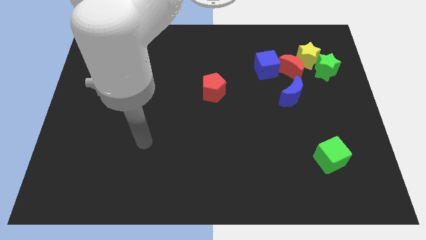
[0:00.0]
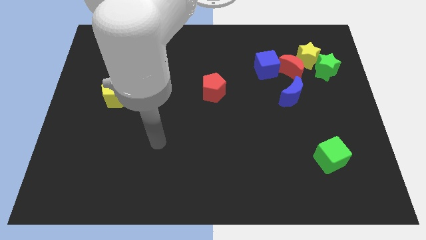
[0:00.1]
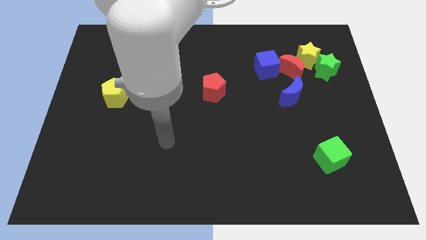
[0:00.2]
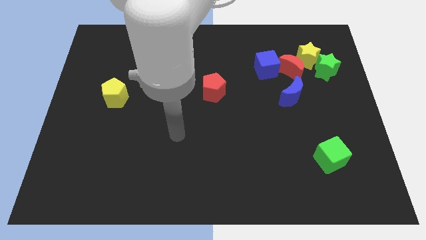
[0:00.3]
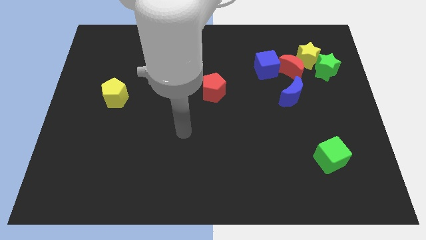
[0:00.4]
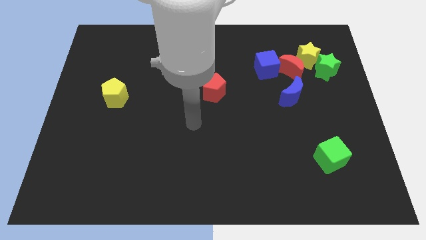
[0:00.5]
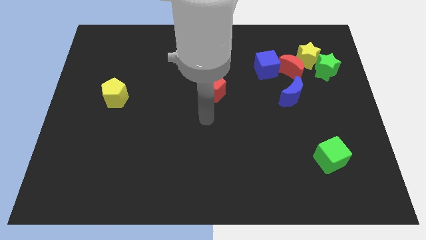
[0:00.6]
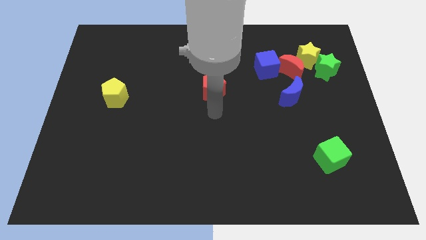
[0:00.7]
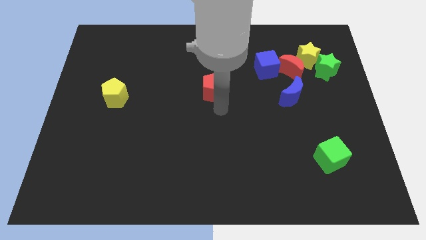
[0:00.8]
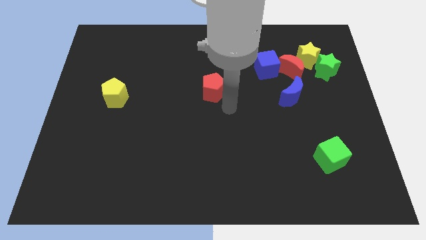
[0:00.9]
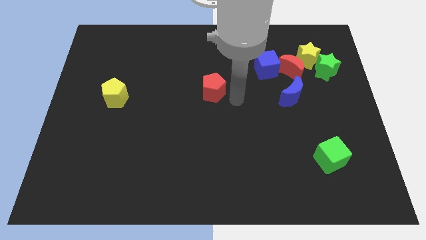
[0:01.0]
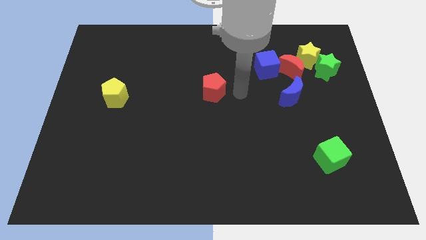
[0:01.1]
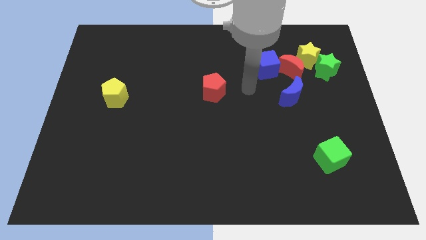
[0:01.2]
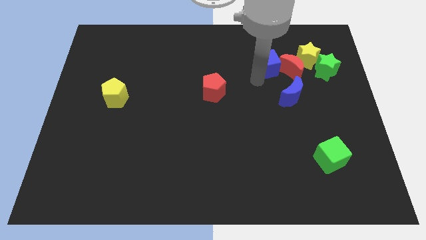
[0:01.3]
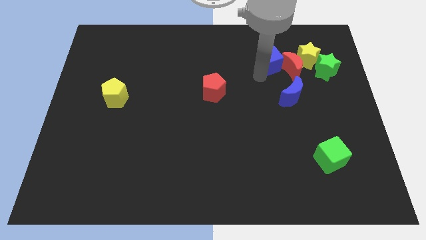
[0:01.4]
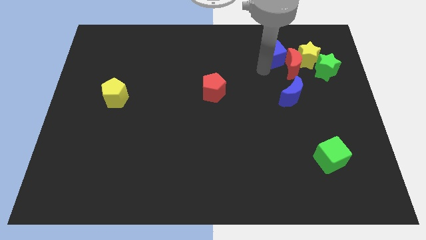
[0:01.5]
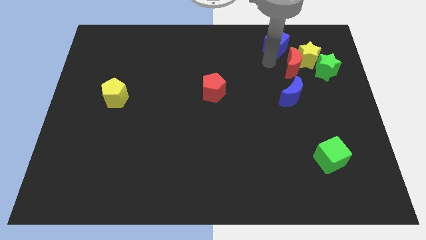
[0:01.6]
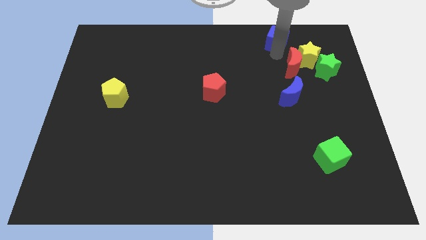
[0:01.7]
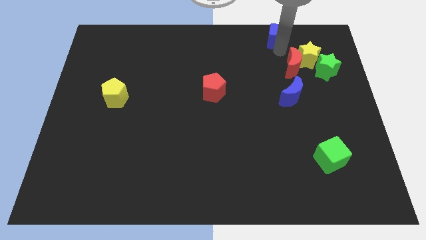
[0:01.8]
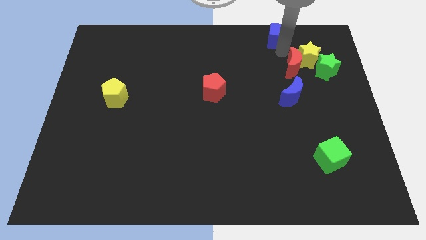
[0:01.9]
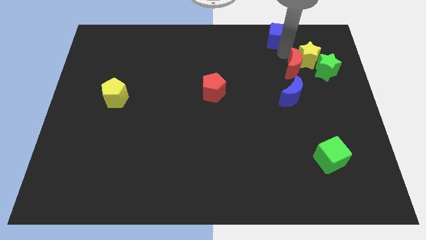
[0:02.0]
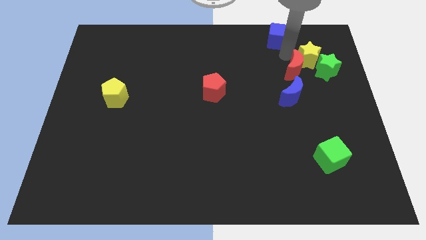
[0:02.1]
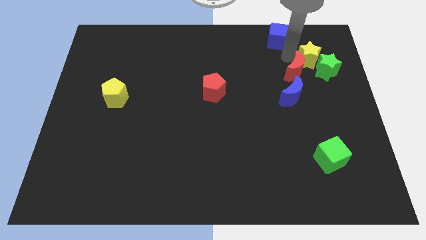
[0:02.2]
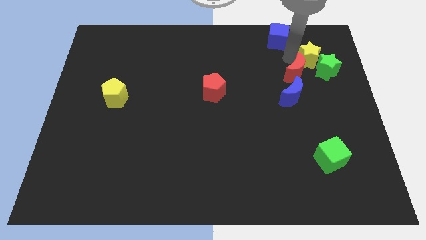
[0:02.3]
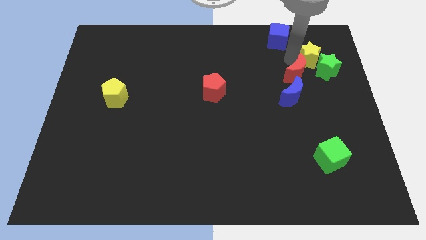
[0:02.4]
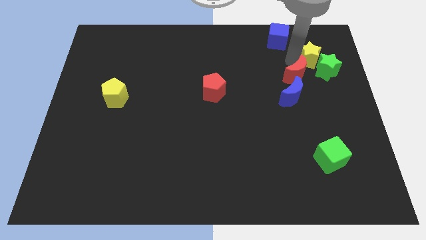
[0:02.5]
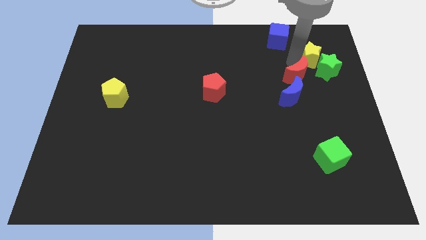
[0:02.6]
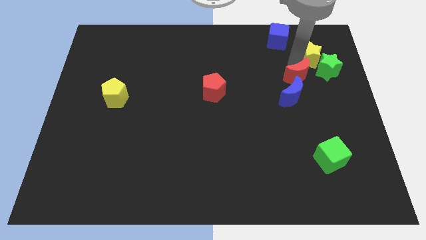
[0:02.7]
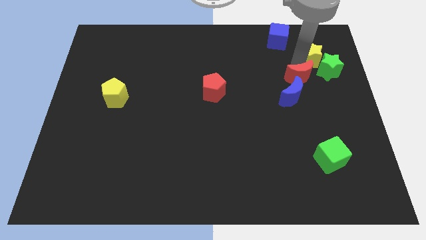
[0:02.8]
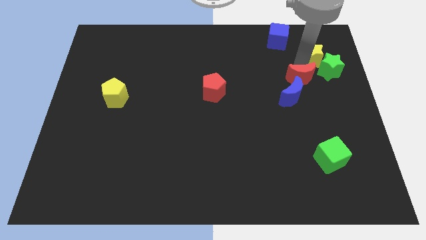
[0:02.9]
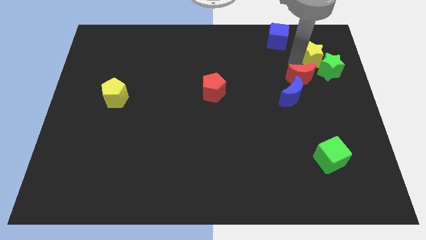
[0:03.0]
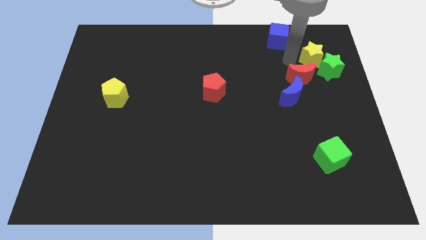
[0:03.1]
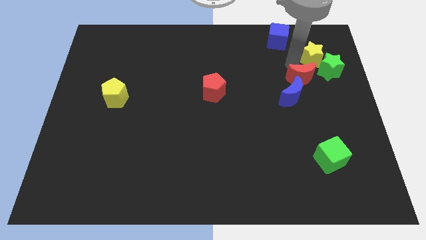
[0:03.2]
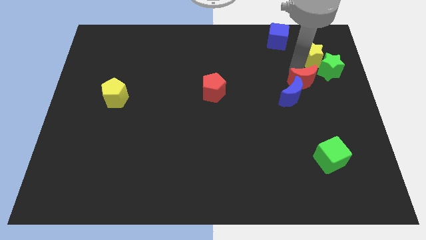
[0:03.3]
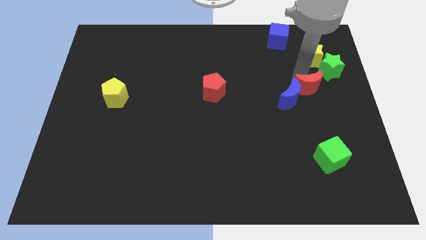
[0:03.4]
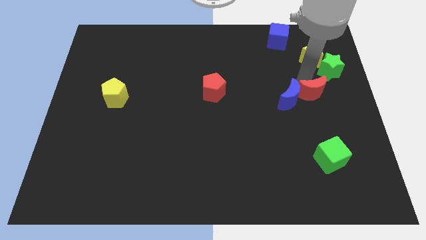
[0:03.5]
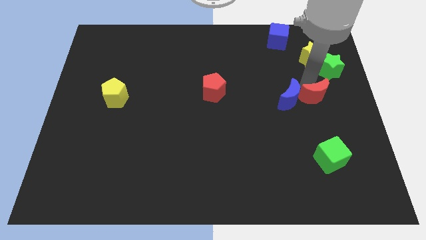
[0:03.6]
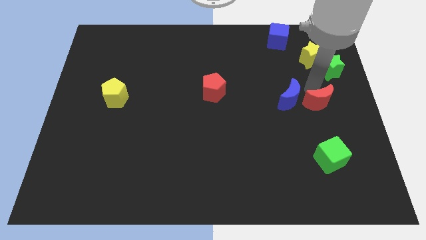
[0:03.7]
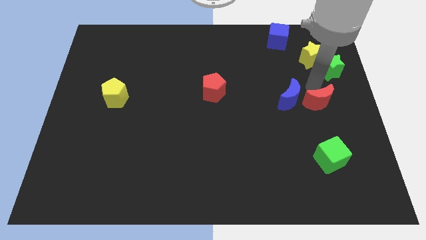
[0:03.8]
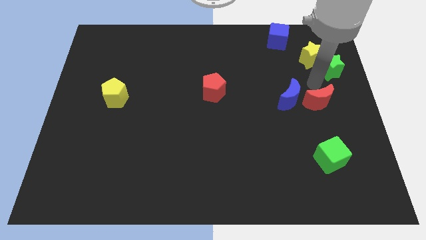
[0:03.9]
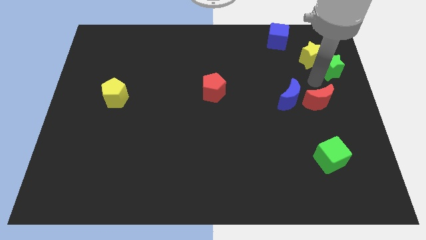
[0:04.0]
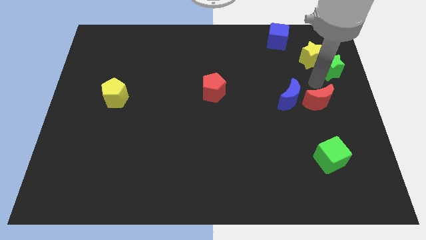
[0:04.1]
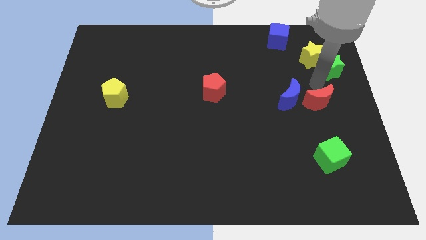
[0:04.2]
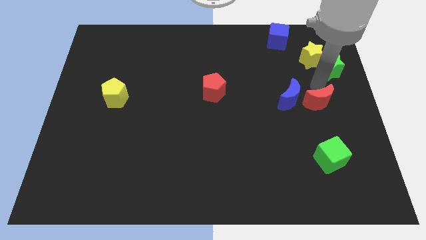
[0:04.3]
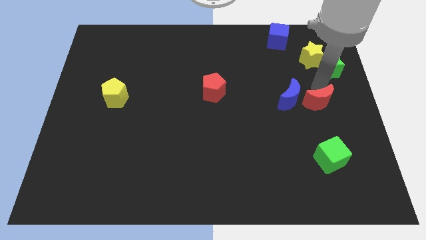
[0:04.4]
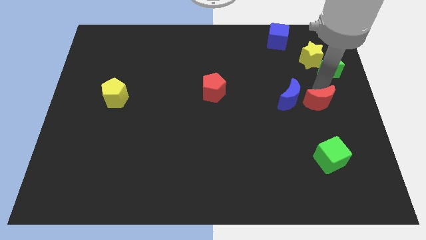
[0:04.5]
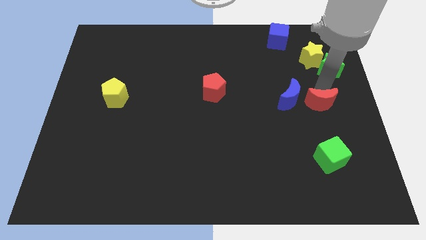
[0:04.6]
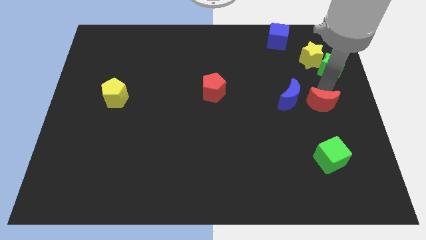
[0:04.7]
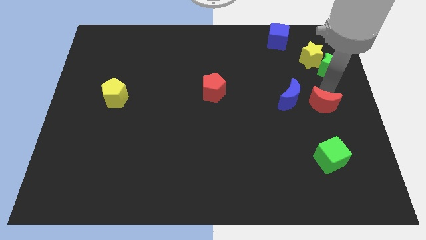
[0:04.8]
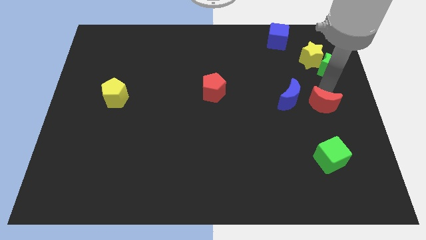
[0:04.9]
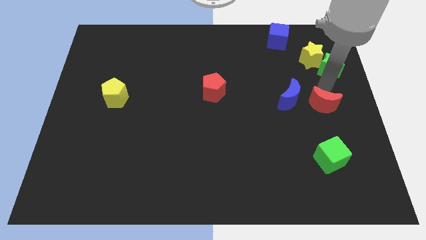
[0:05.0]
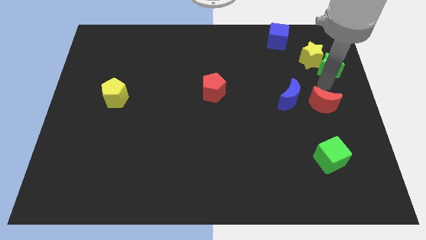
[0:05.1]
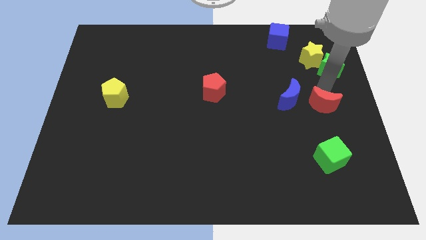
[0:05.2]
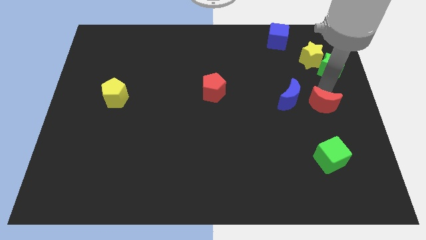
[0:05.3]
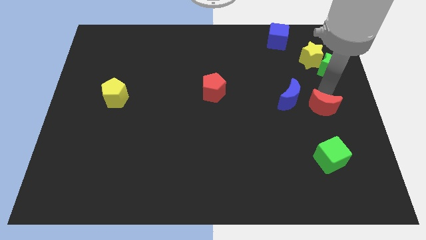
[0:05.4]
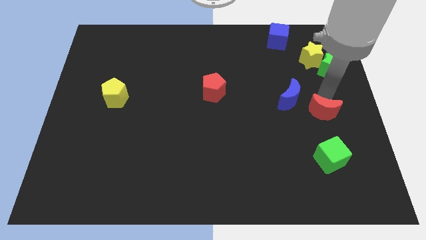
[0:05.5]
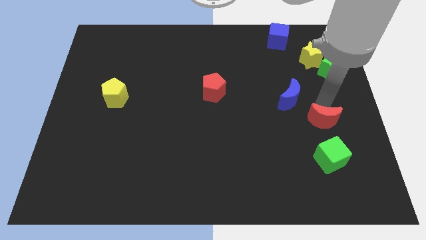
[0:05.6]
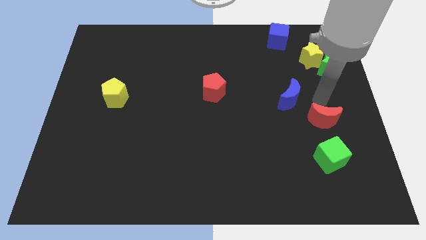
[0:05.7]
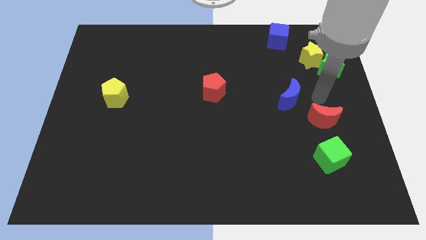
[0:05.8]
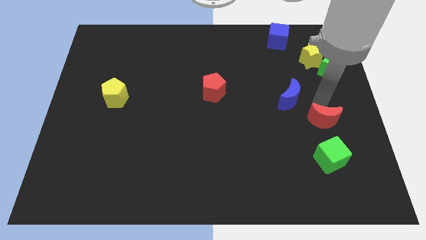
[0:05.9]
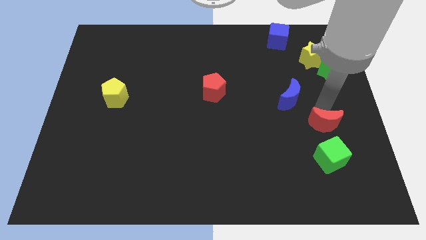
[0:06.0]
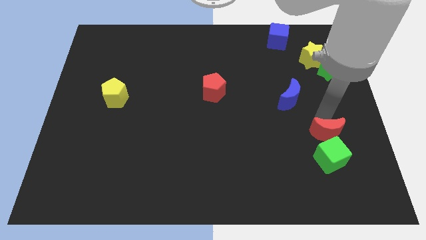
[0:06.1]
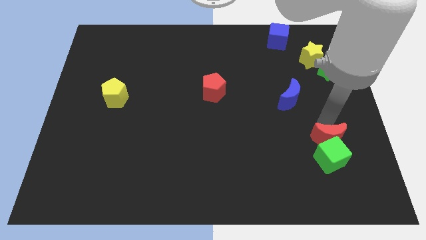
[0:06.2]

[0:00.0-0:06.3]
push the red moon towards the green cube

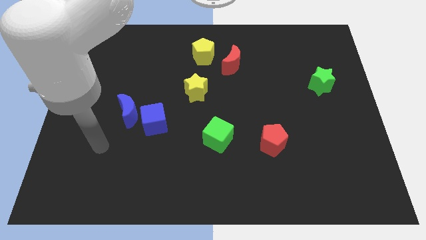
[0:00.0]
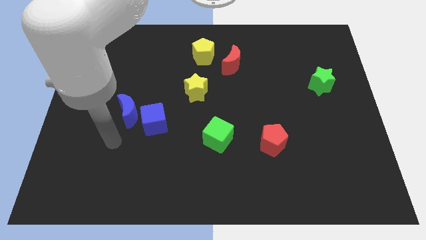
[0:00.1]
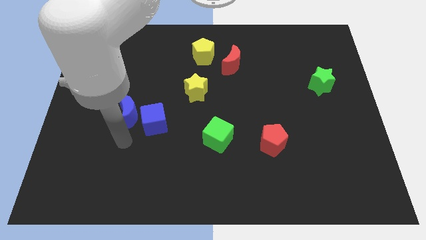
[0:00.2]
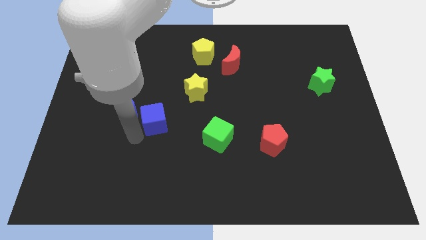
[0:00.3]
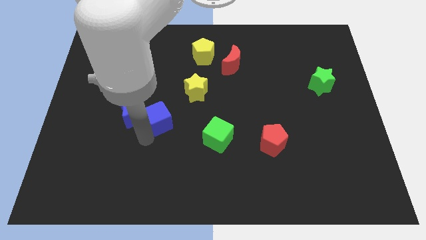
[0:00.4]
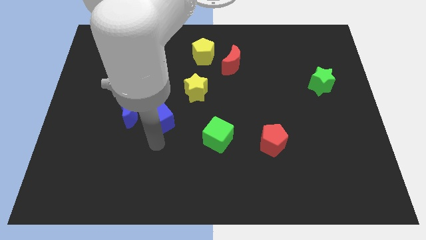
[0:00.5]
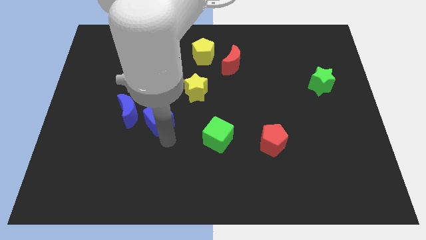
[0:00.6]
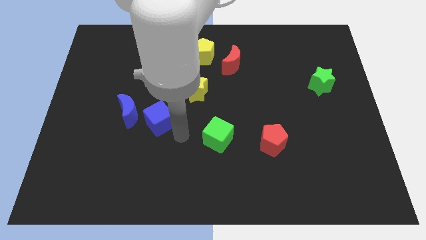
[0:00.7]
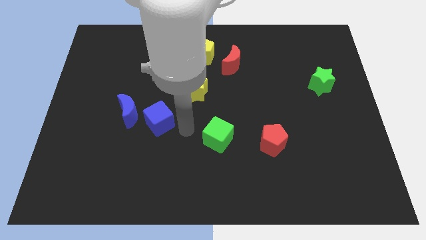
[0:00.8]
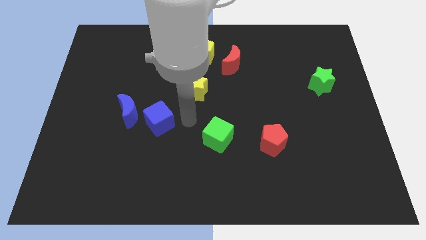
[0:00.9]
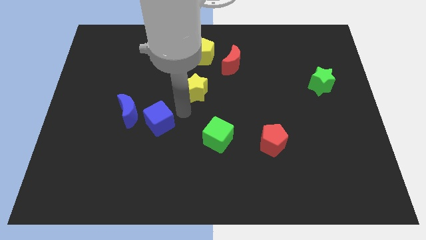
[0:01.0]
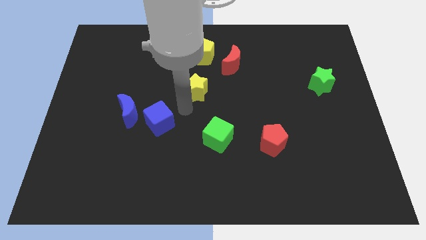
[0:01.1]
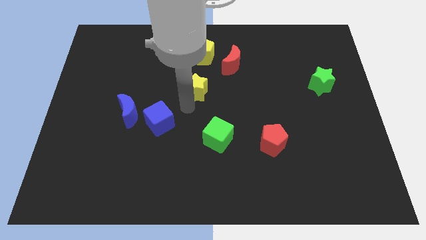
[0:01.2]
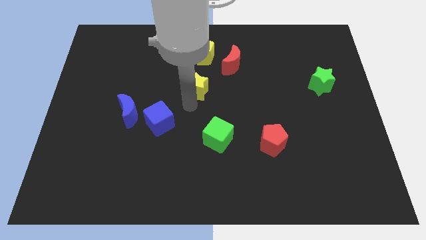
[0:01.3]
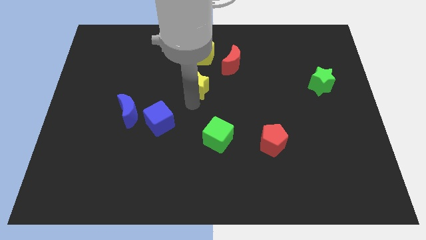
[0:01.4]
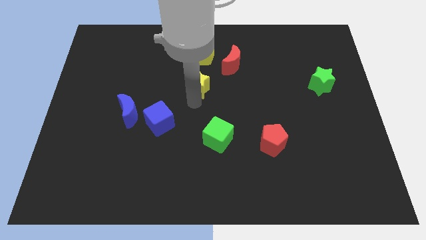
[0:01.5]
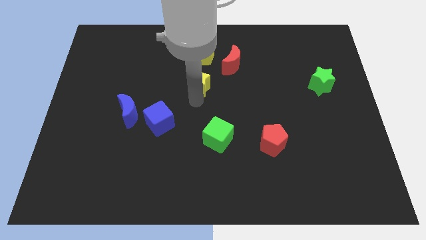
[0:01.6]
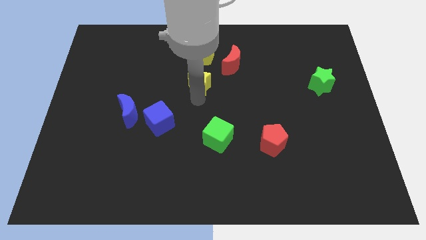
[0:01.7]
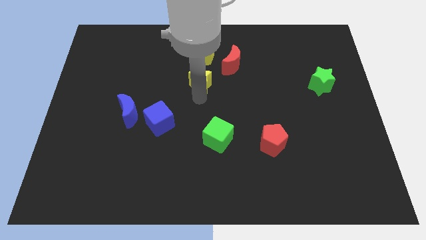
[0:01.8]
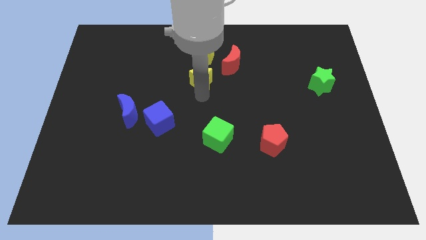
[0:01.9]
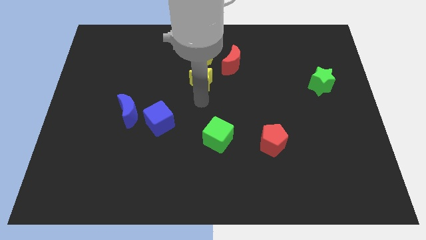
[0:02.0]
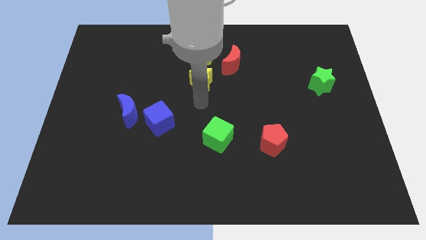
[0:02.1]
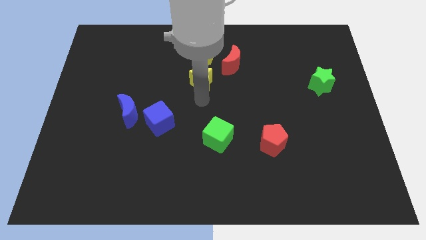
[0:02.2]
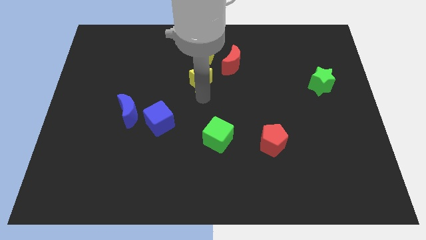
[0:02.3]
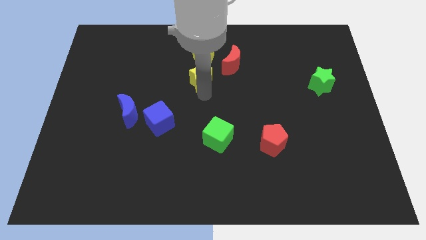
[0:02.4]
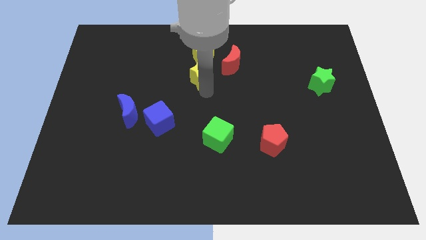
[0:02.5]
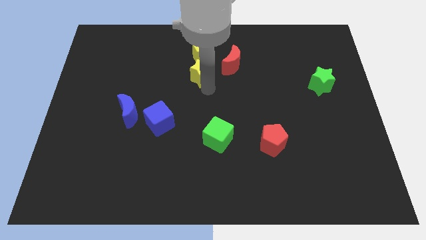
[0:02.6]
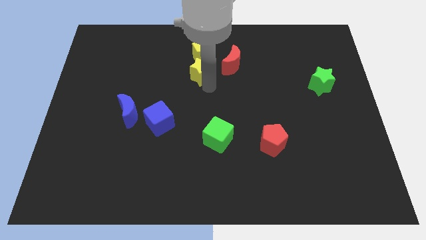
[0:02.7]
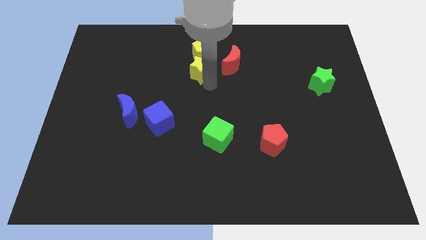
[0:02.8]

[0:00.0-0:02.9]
move the yellow star towards the yellow pentagon
